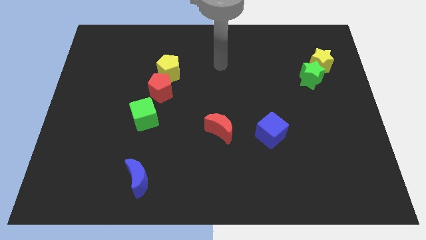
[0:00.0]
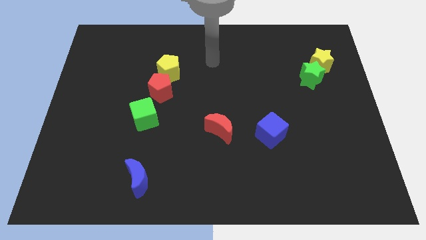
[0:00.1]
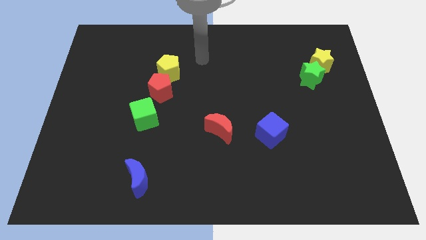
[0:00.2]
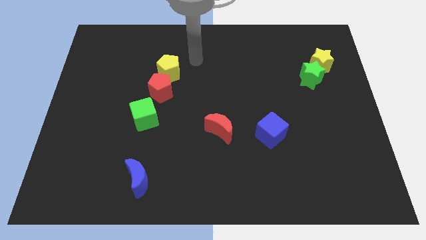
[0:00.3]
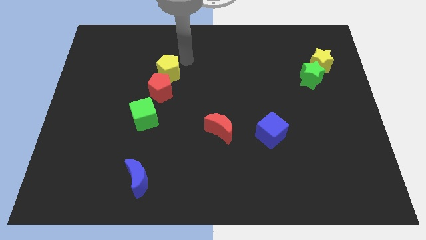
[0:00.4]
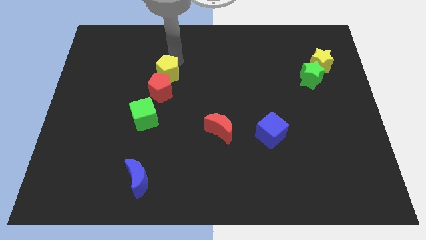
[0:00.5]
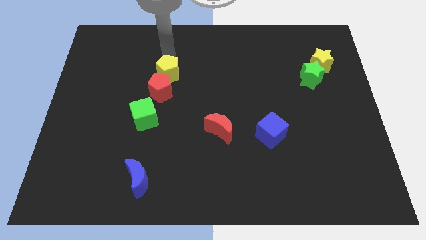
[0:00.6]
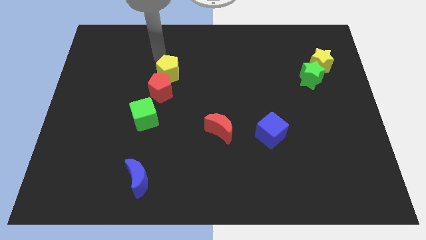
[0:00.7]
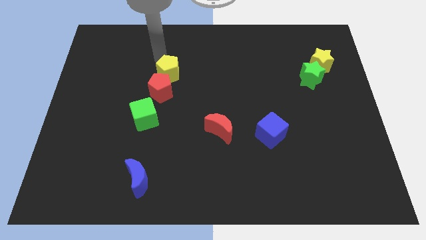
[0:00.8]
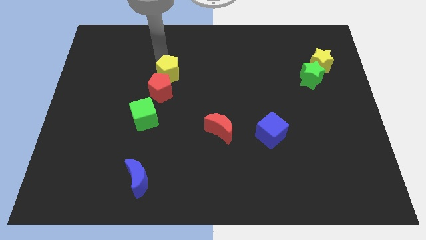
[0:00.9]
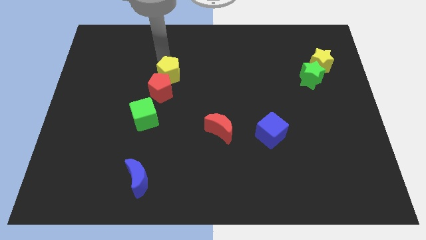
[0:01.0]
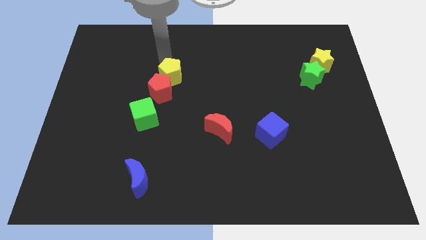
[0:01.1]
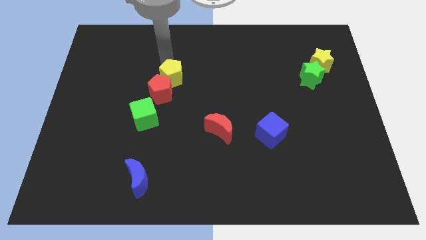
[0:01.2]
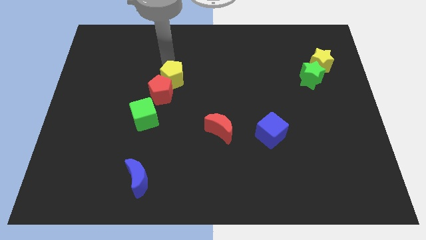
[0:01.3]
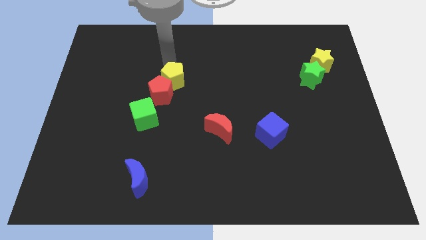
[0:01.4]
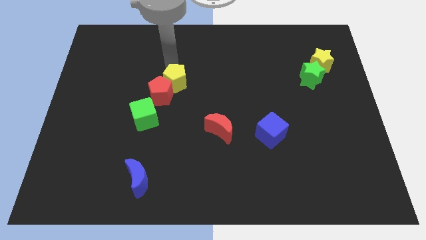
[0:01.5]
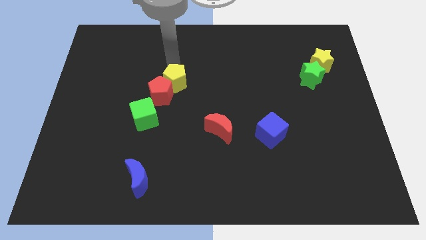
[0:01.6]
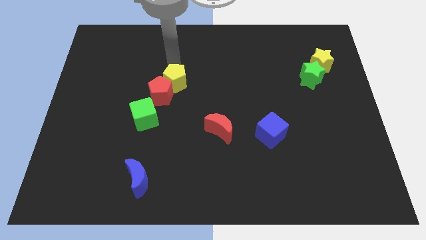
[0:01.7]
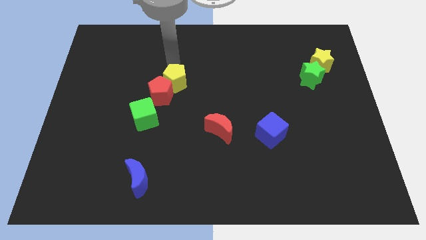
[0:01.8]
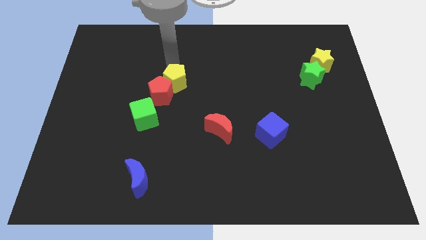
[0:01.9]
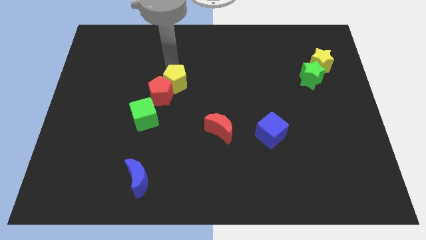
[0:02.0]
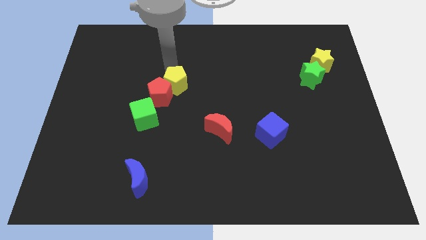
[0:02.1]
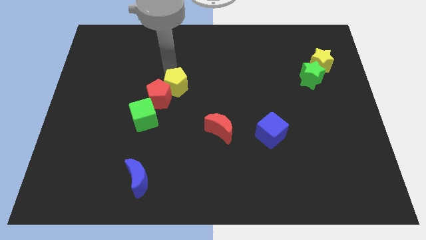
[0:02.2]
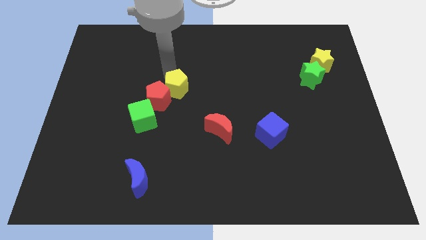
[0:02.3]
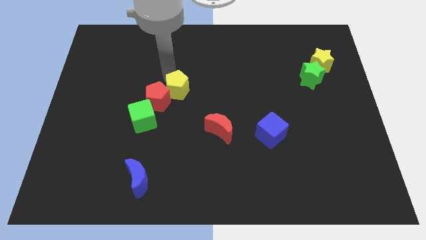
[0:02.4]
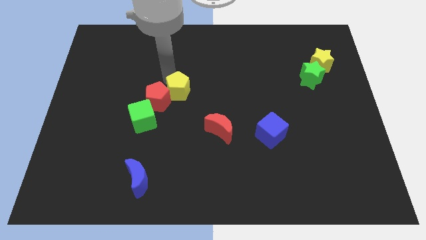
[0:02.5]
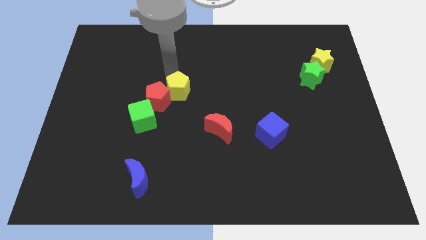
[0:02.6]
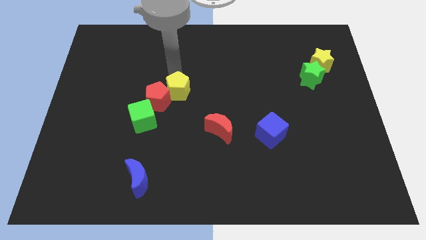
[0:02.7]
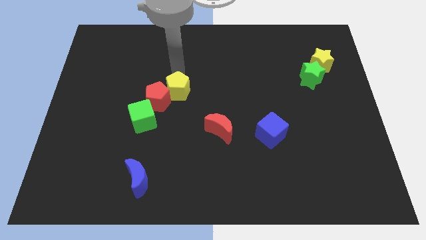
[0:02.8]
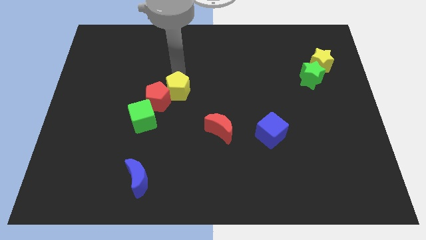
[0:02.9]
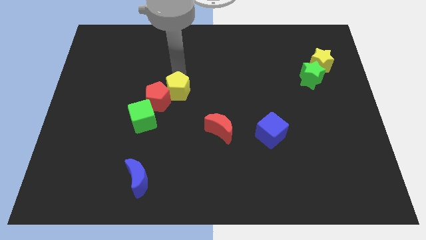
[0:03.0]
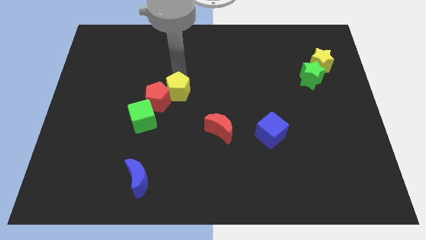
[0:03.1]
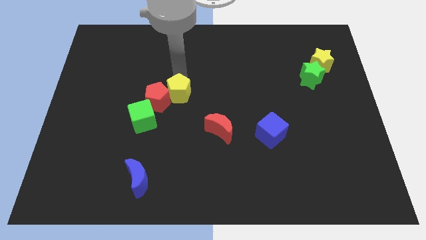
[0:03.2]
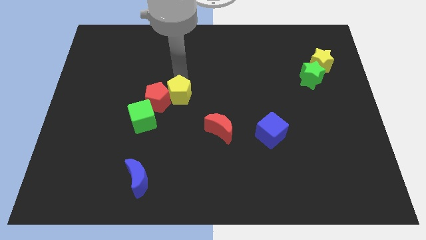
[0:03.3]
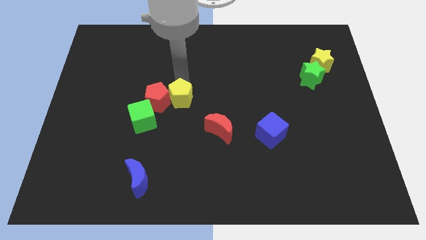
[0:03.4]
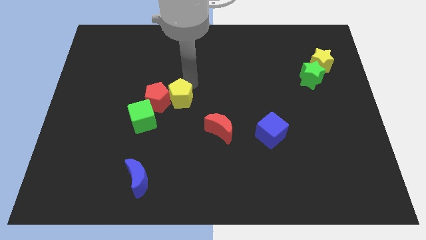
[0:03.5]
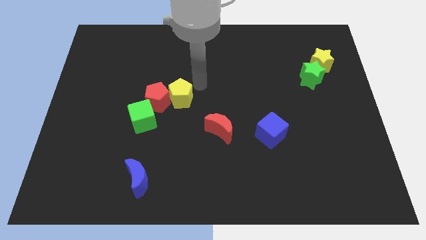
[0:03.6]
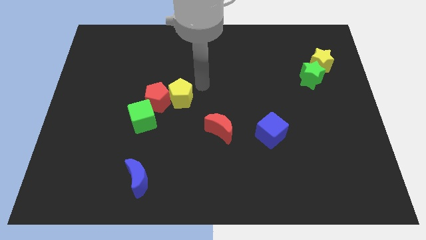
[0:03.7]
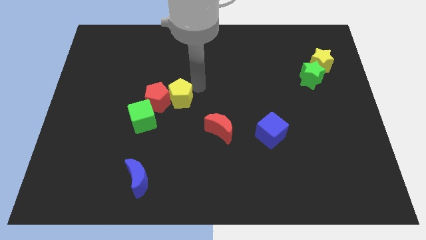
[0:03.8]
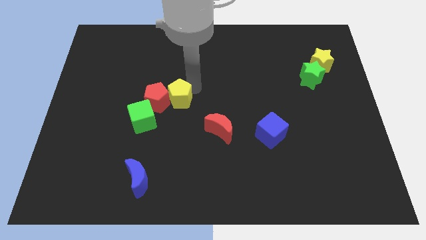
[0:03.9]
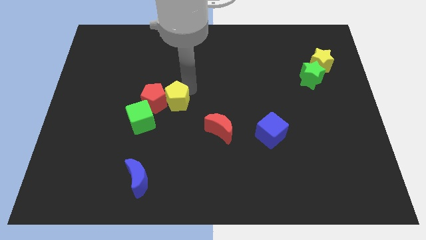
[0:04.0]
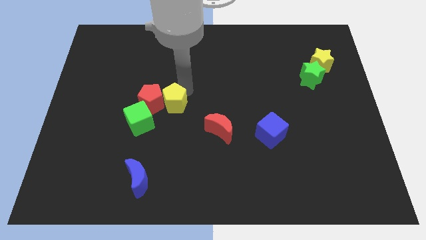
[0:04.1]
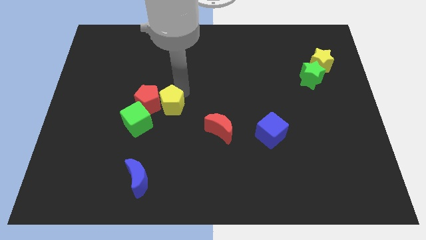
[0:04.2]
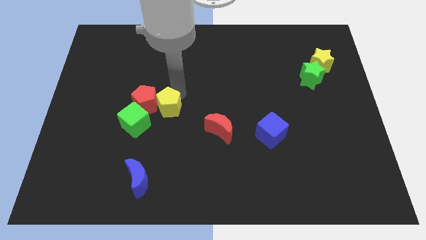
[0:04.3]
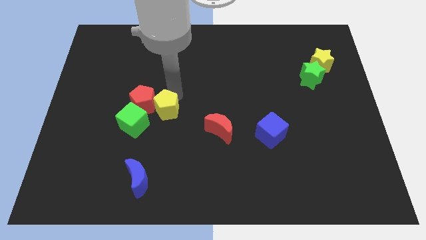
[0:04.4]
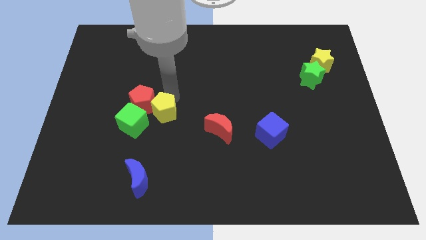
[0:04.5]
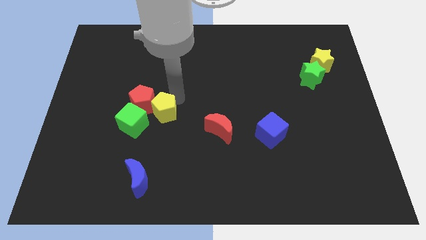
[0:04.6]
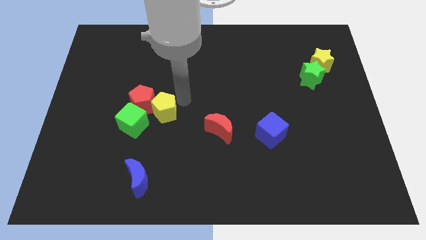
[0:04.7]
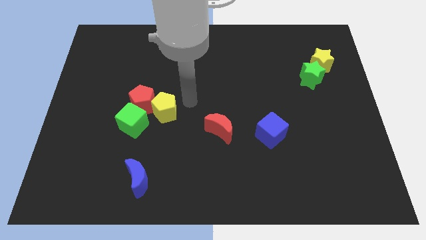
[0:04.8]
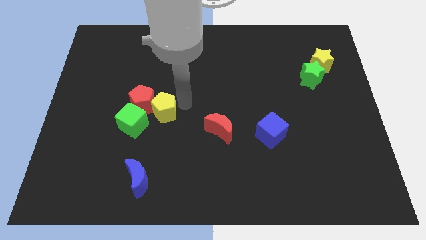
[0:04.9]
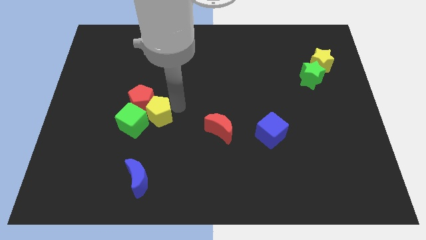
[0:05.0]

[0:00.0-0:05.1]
move the yellow pentagon close to the green cube

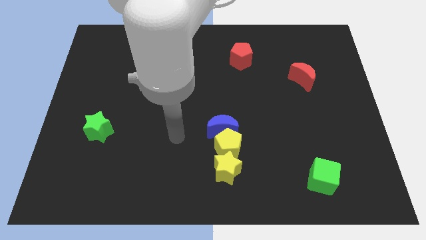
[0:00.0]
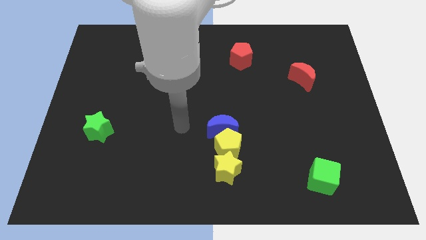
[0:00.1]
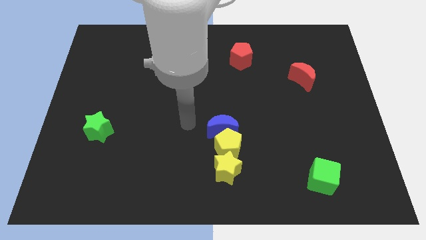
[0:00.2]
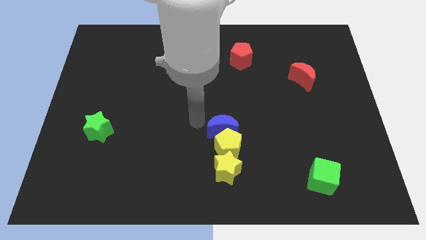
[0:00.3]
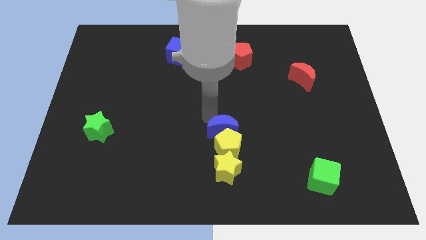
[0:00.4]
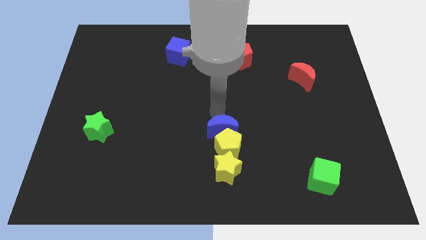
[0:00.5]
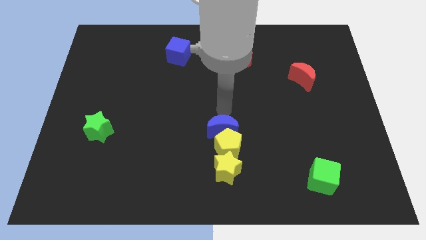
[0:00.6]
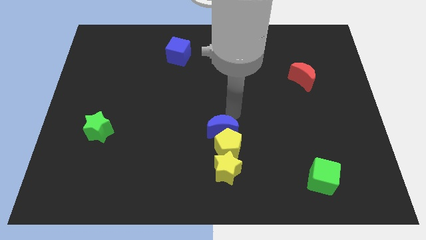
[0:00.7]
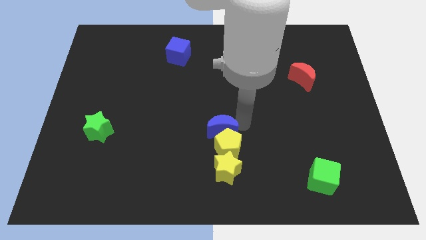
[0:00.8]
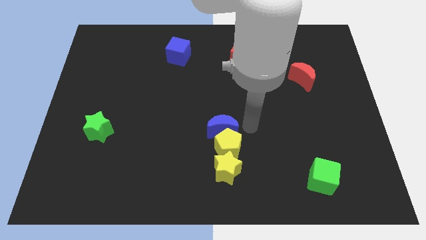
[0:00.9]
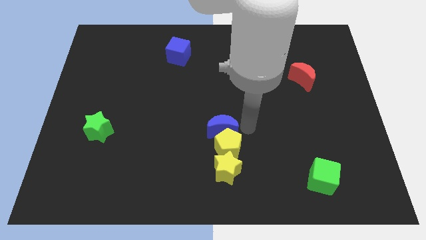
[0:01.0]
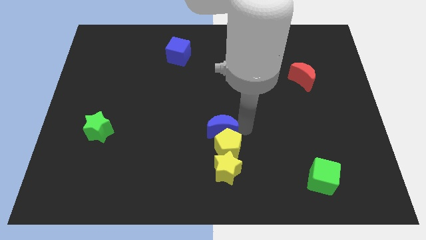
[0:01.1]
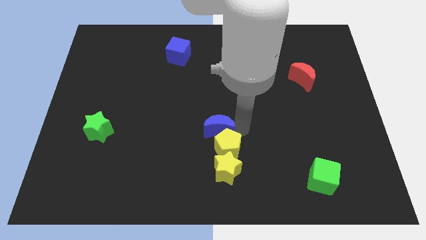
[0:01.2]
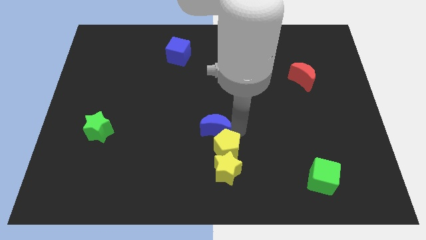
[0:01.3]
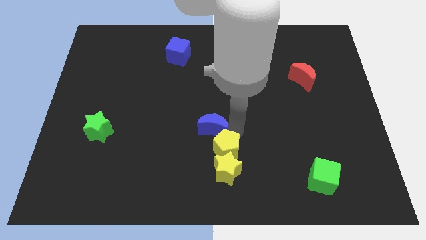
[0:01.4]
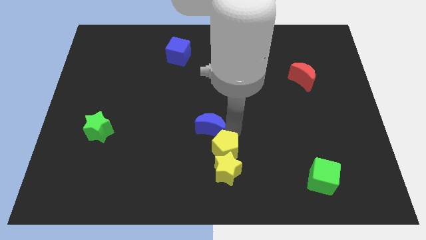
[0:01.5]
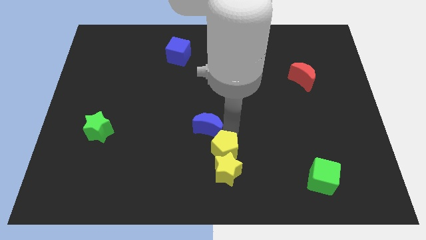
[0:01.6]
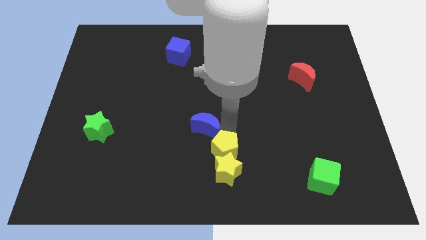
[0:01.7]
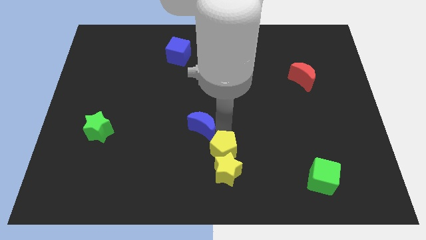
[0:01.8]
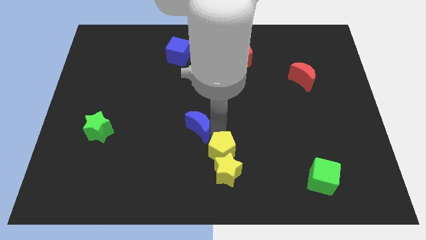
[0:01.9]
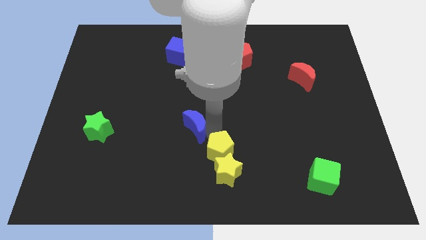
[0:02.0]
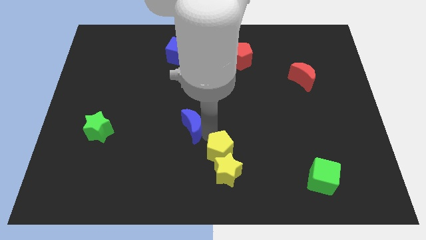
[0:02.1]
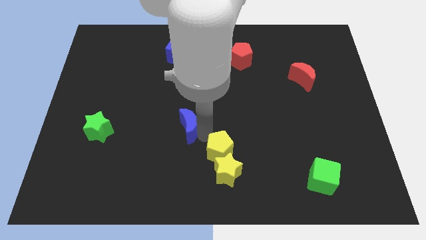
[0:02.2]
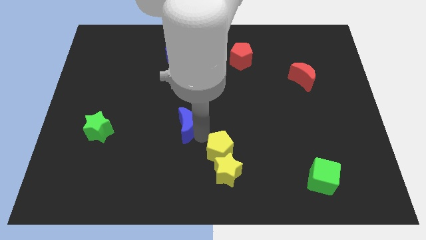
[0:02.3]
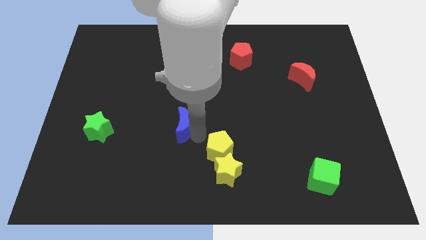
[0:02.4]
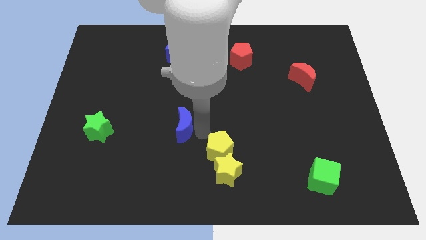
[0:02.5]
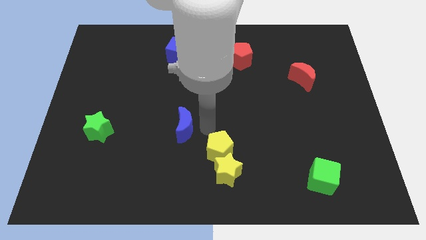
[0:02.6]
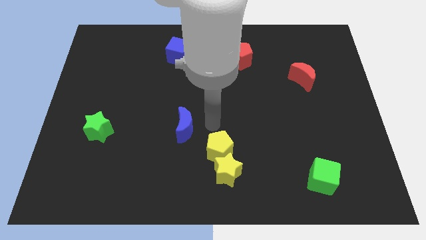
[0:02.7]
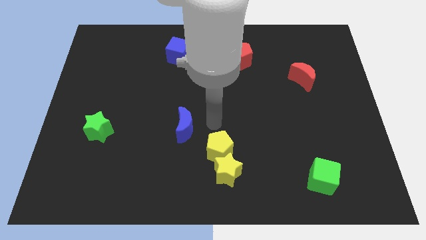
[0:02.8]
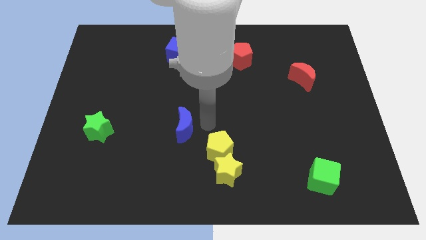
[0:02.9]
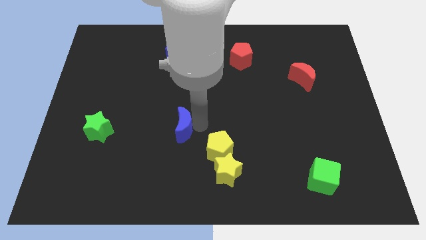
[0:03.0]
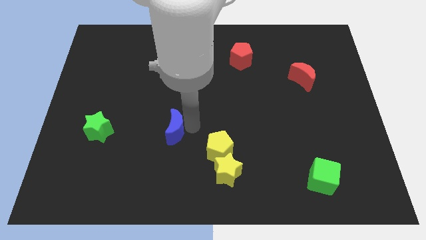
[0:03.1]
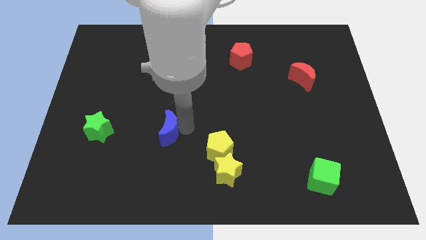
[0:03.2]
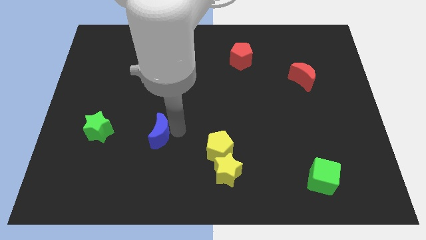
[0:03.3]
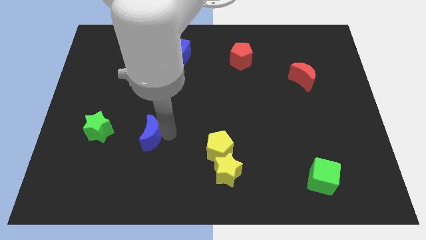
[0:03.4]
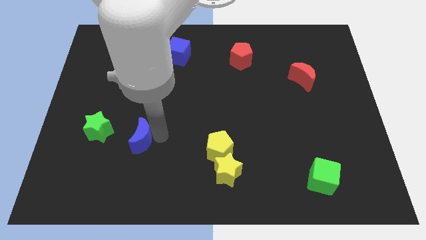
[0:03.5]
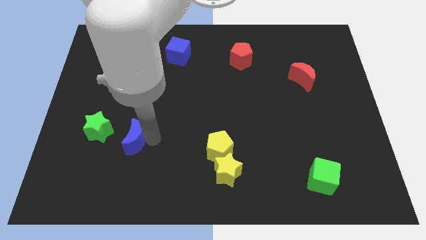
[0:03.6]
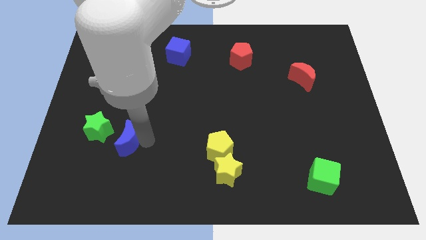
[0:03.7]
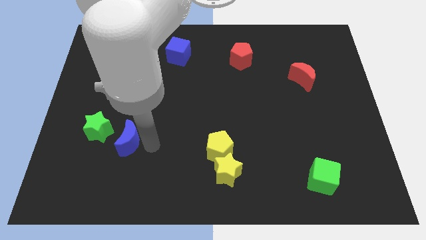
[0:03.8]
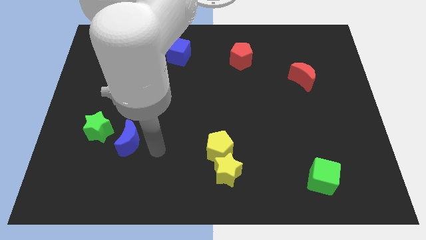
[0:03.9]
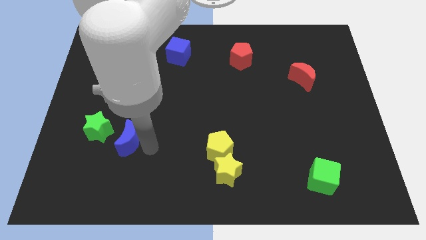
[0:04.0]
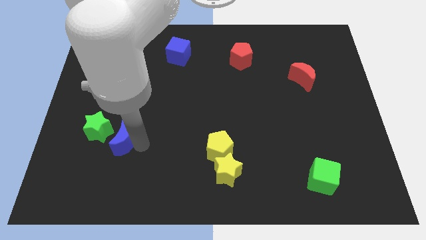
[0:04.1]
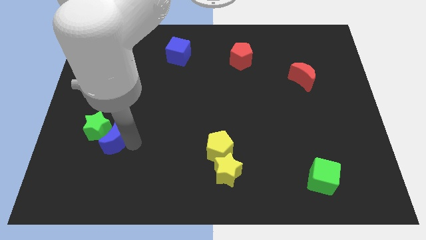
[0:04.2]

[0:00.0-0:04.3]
push the blue moon to the green star
